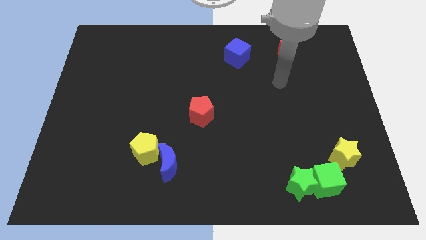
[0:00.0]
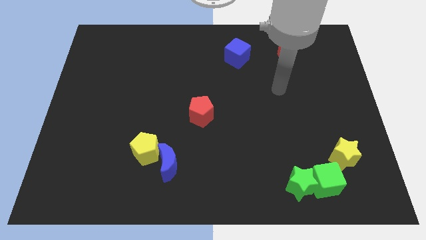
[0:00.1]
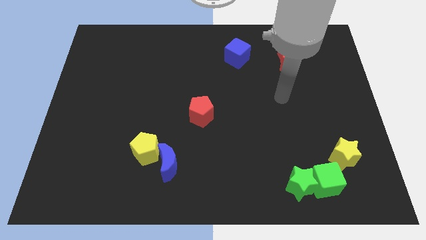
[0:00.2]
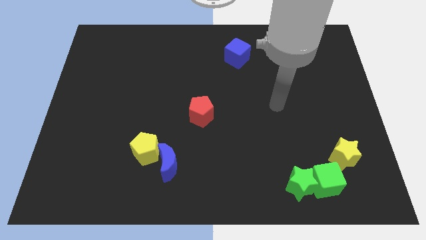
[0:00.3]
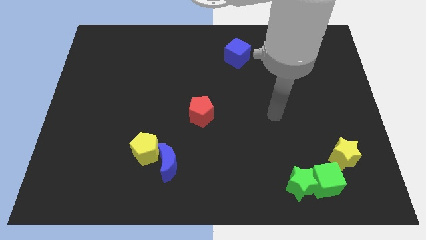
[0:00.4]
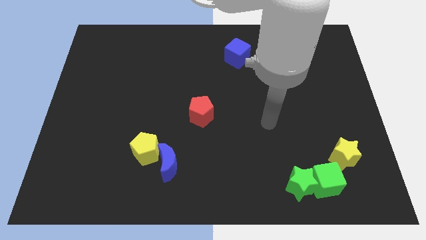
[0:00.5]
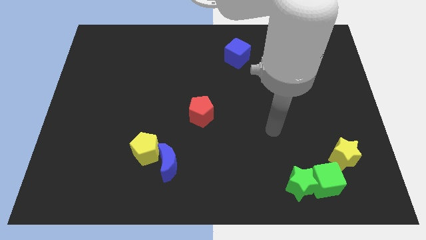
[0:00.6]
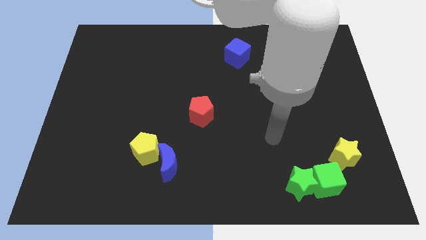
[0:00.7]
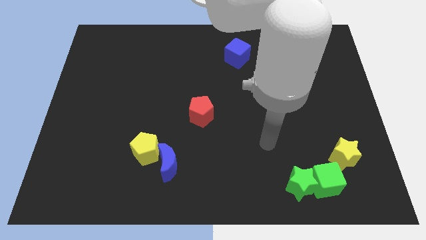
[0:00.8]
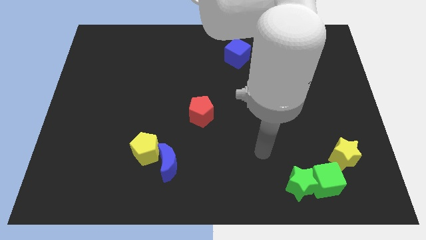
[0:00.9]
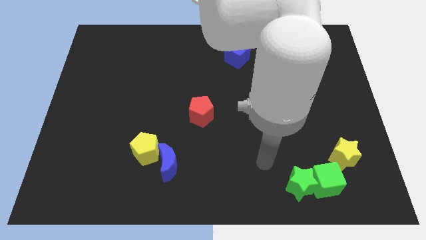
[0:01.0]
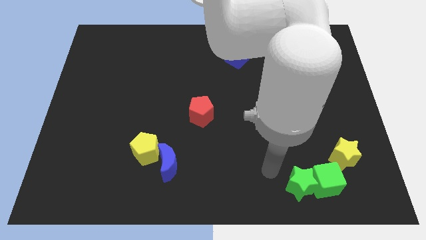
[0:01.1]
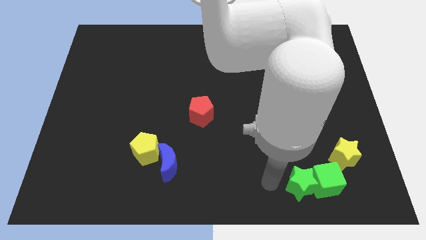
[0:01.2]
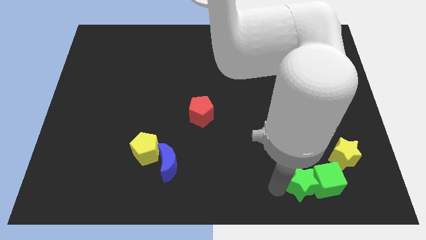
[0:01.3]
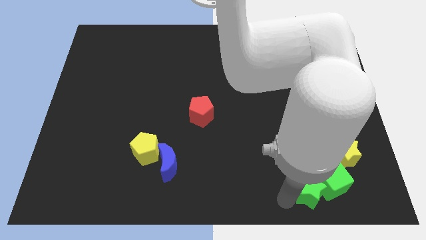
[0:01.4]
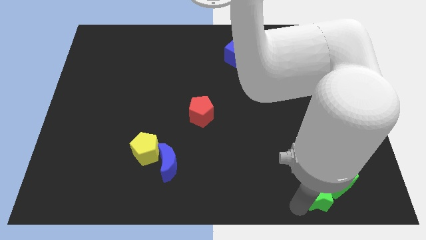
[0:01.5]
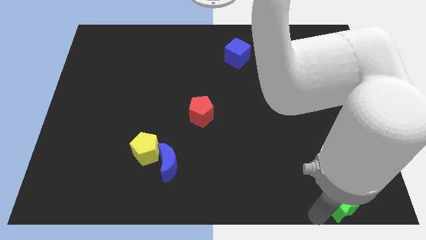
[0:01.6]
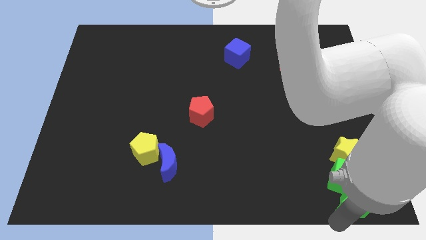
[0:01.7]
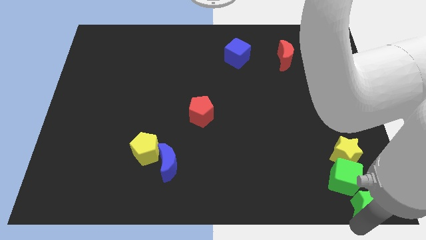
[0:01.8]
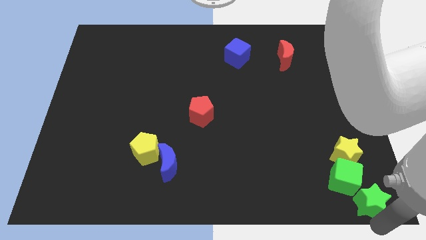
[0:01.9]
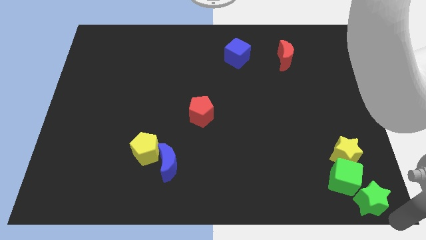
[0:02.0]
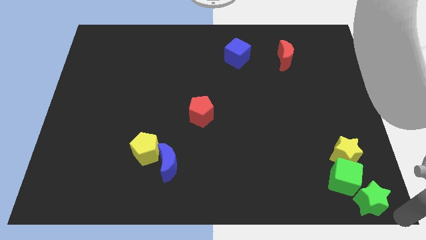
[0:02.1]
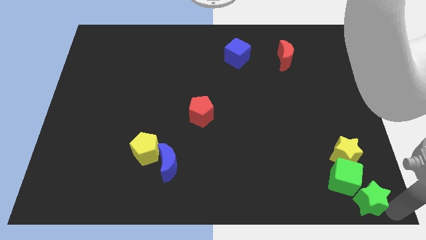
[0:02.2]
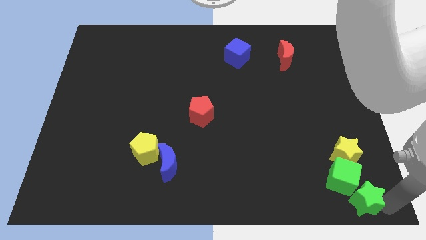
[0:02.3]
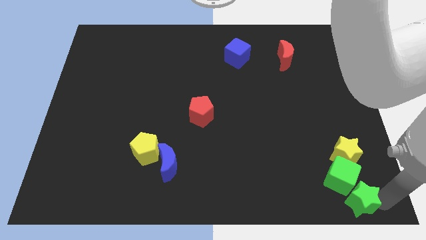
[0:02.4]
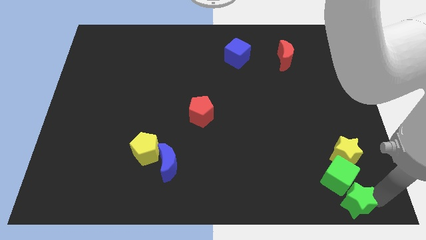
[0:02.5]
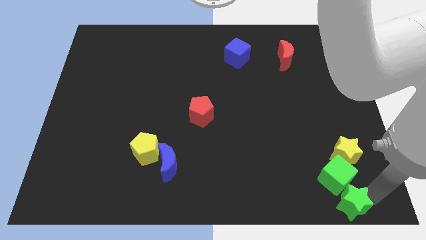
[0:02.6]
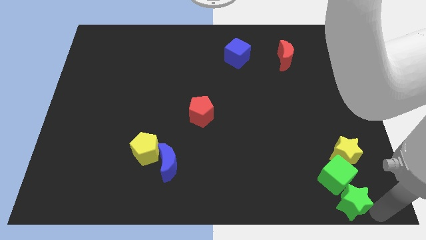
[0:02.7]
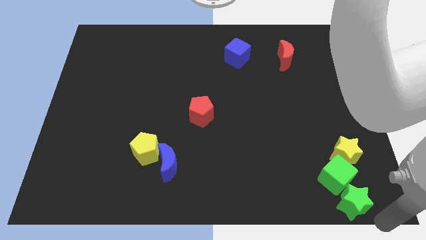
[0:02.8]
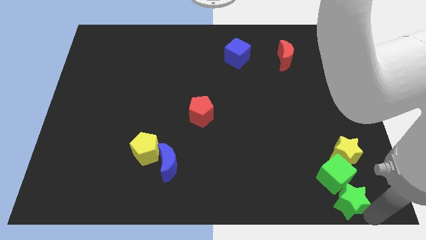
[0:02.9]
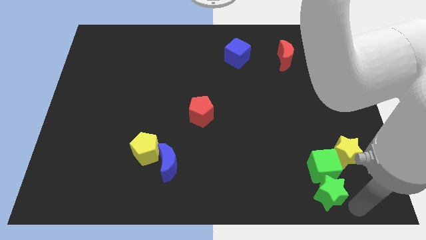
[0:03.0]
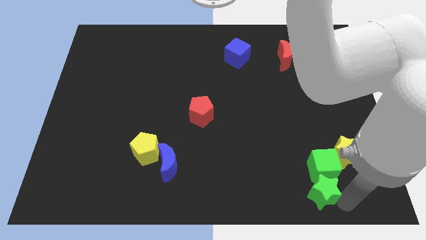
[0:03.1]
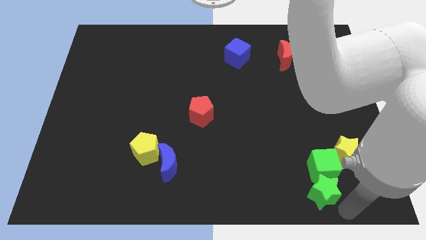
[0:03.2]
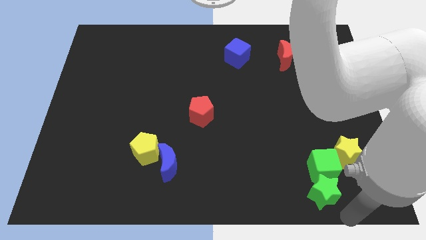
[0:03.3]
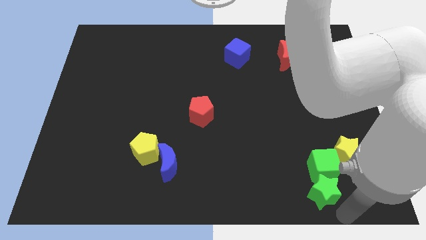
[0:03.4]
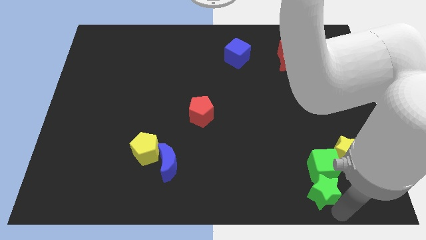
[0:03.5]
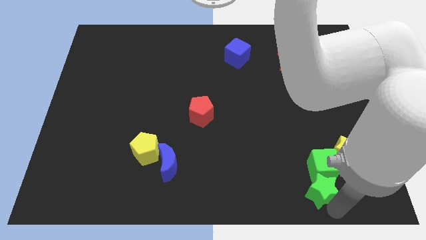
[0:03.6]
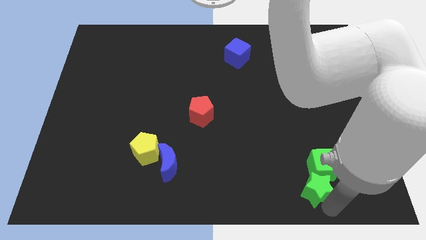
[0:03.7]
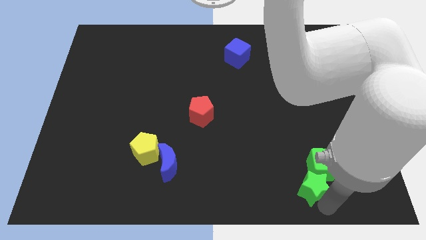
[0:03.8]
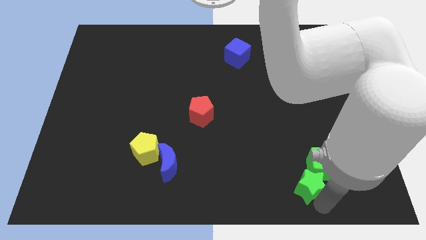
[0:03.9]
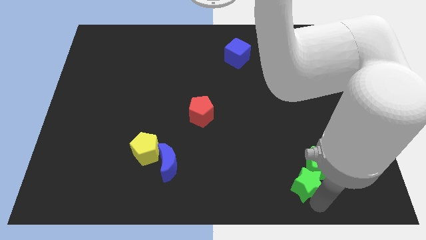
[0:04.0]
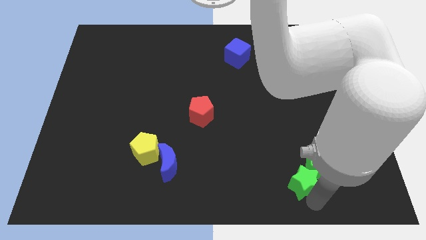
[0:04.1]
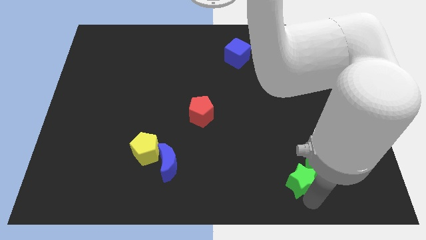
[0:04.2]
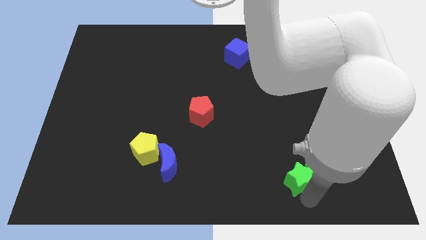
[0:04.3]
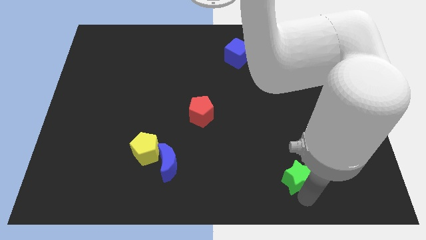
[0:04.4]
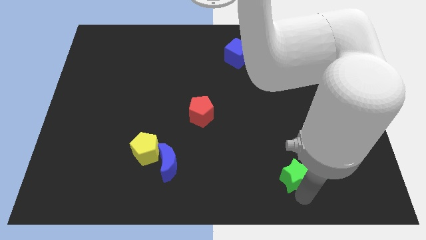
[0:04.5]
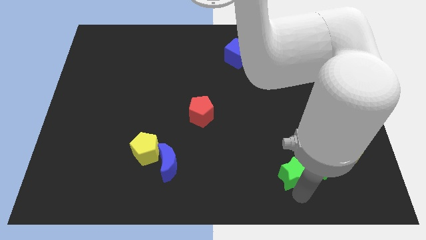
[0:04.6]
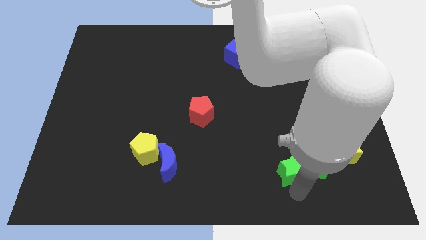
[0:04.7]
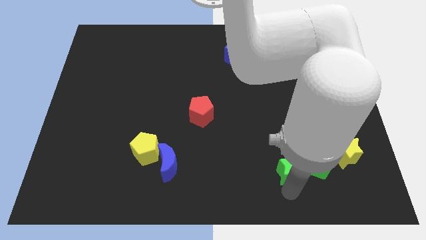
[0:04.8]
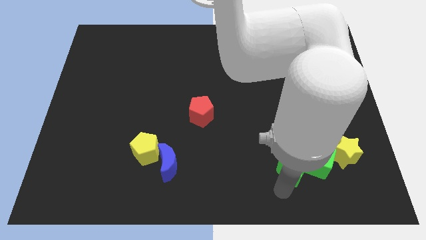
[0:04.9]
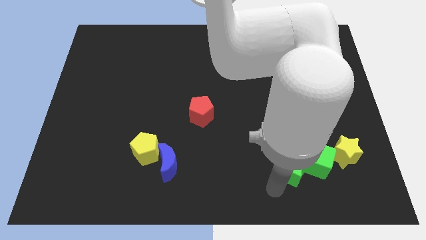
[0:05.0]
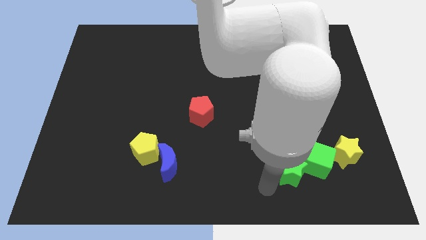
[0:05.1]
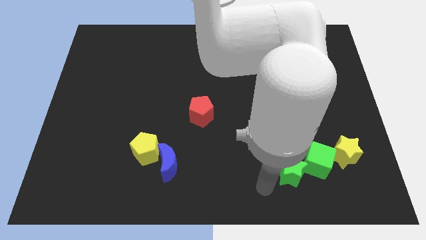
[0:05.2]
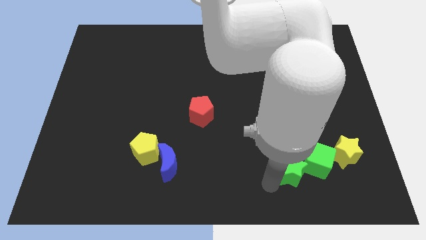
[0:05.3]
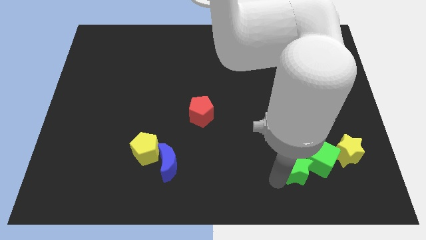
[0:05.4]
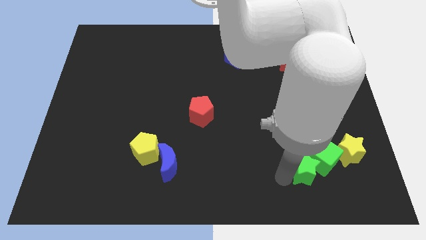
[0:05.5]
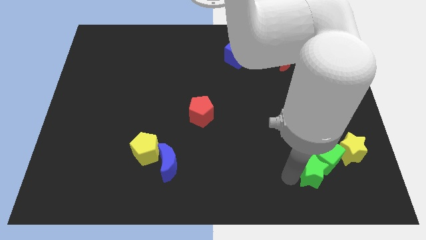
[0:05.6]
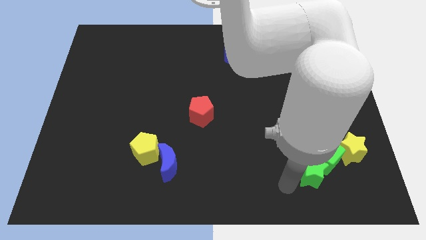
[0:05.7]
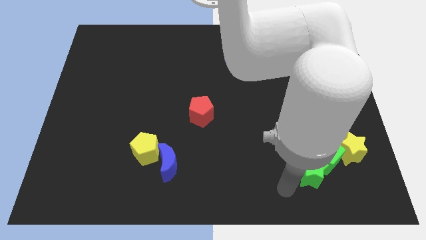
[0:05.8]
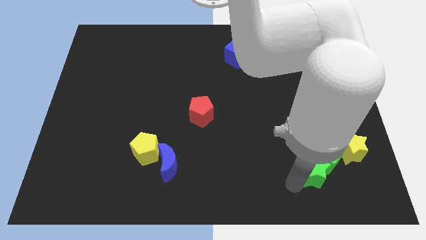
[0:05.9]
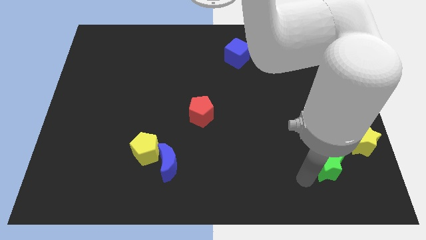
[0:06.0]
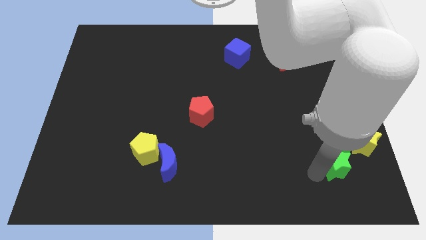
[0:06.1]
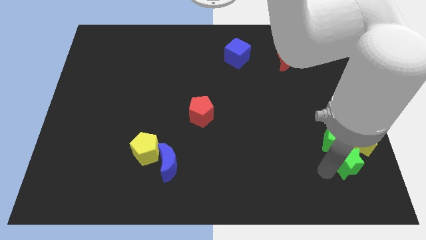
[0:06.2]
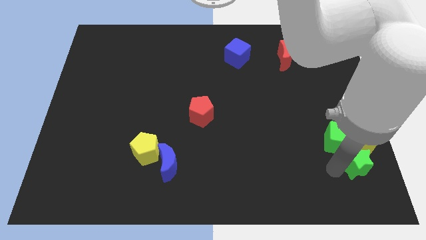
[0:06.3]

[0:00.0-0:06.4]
move the green star next to the yellow star

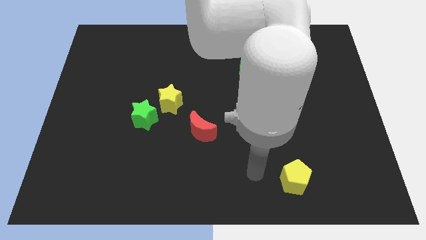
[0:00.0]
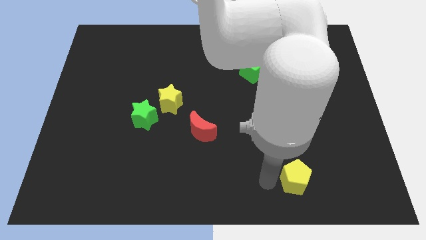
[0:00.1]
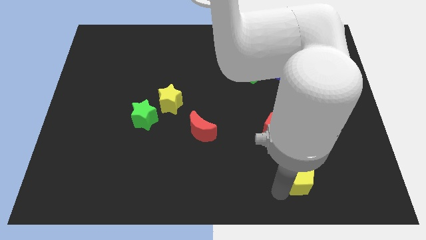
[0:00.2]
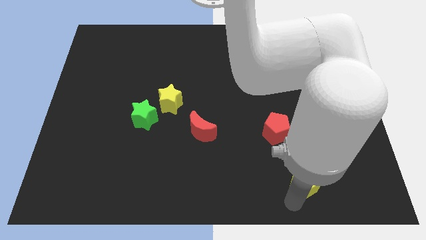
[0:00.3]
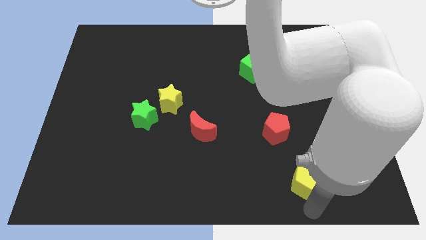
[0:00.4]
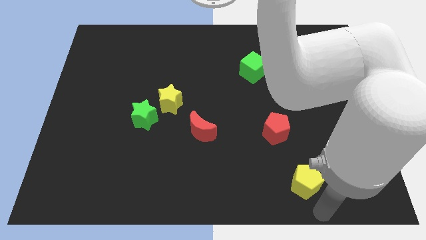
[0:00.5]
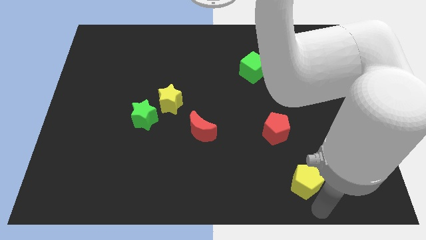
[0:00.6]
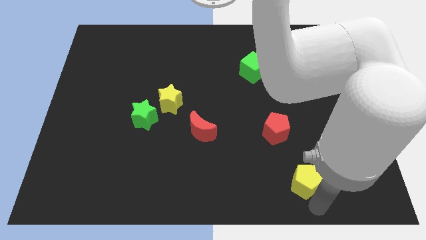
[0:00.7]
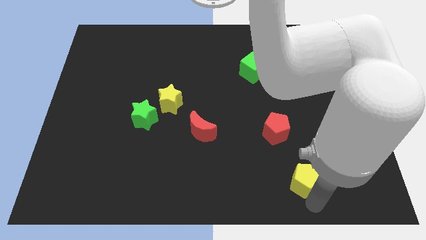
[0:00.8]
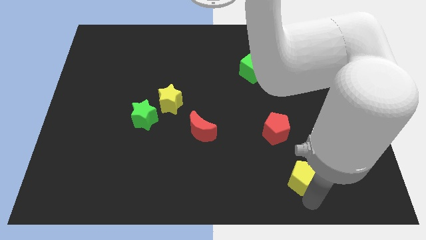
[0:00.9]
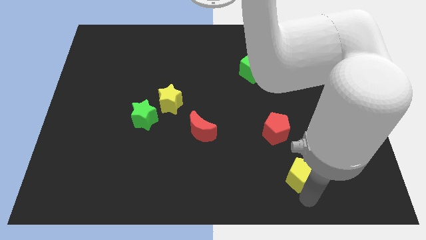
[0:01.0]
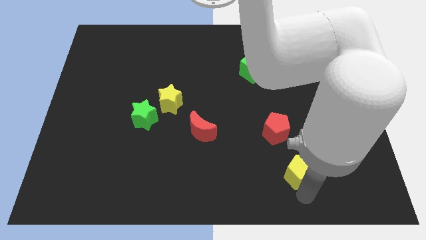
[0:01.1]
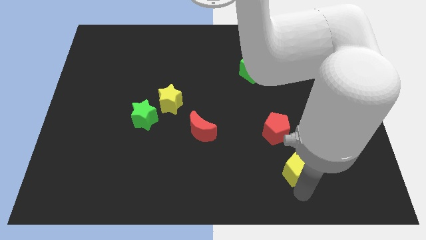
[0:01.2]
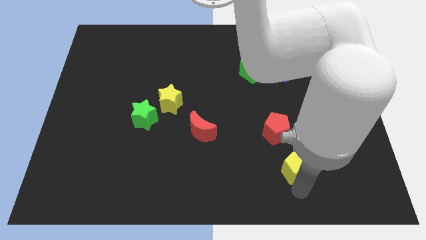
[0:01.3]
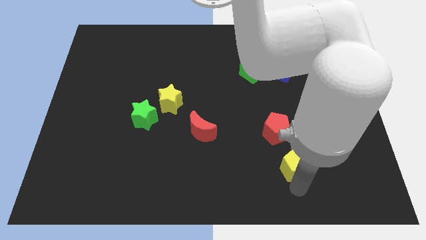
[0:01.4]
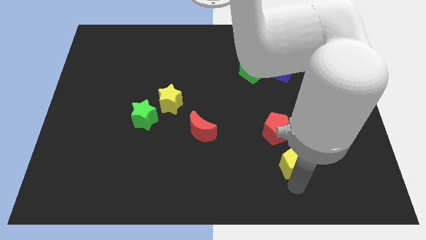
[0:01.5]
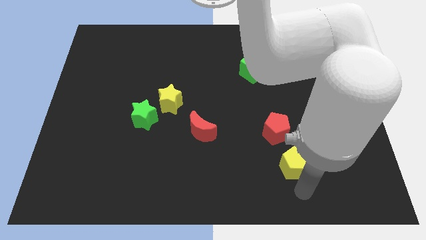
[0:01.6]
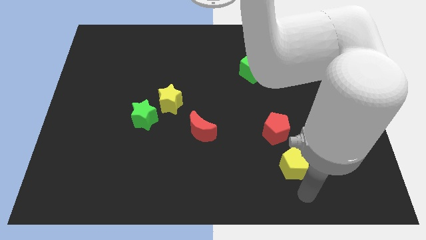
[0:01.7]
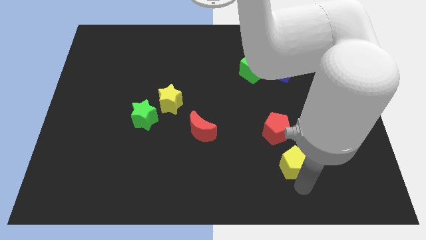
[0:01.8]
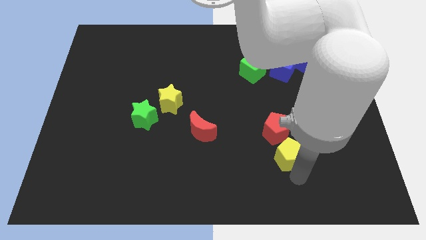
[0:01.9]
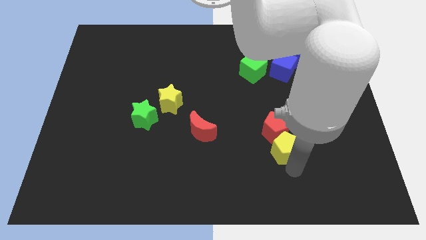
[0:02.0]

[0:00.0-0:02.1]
slide the yellow pentagon next to the red pentagon
